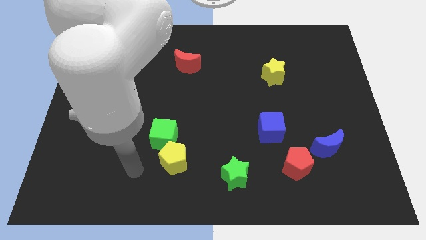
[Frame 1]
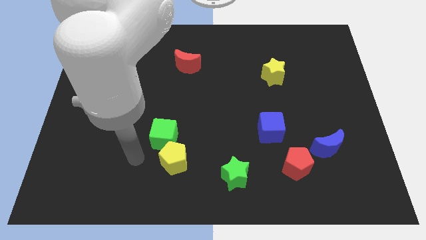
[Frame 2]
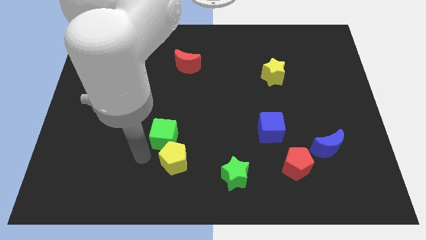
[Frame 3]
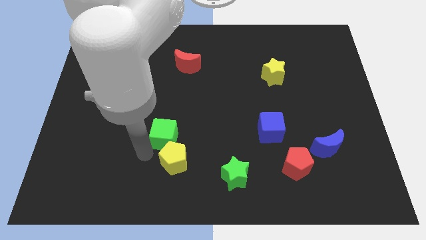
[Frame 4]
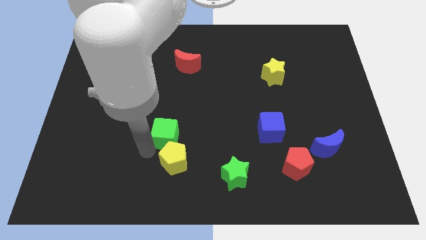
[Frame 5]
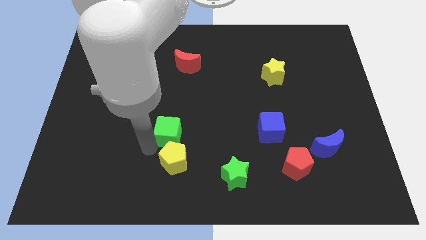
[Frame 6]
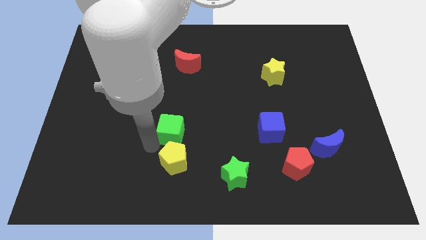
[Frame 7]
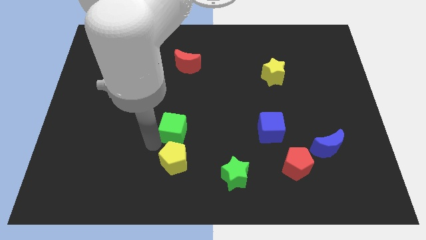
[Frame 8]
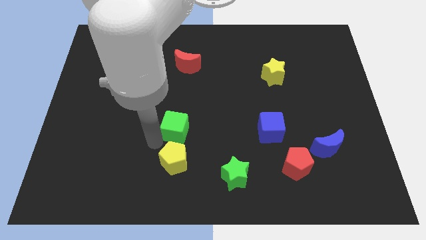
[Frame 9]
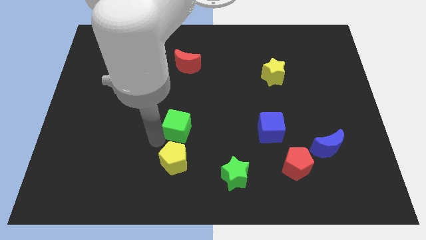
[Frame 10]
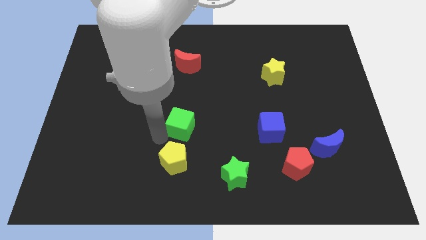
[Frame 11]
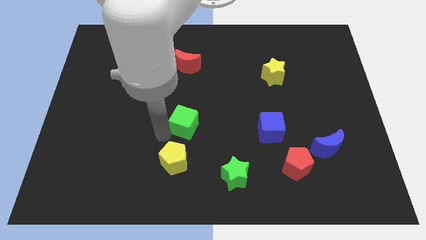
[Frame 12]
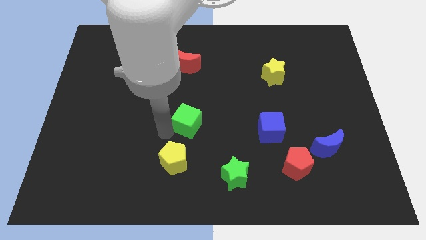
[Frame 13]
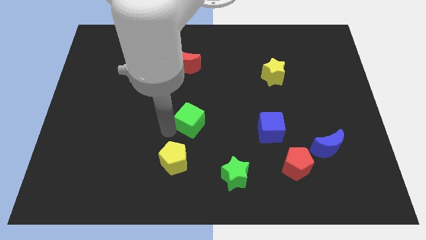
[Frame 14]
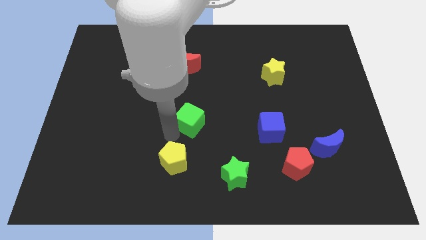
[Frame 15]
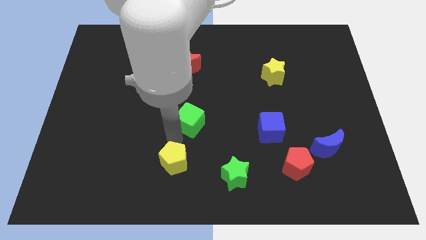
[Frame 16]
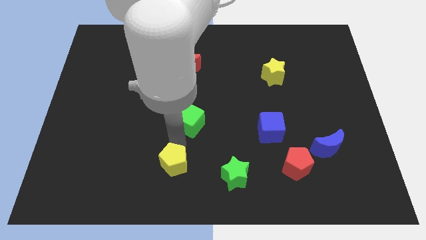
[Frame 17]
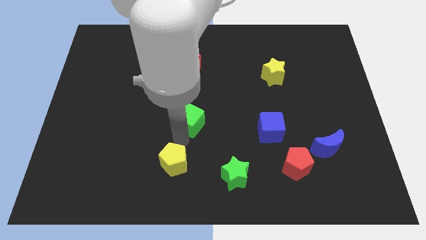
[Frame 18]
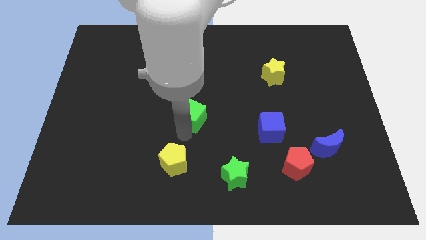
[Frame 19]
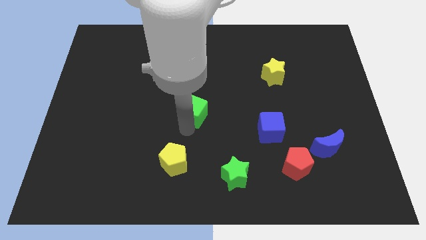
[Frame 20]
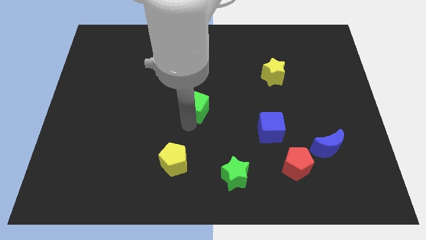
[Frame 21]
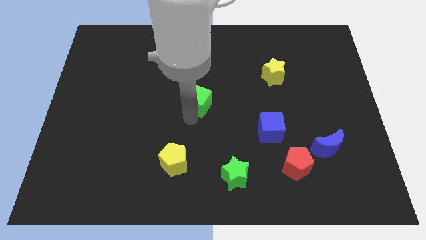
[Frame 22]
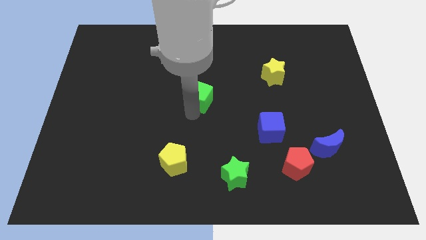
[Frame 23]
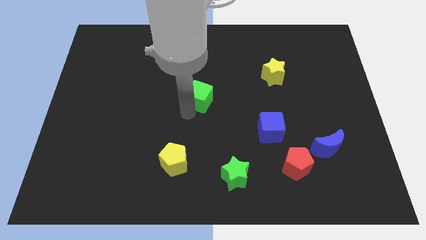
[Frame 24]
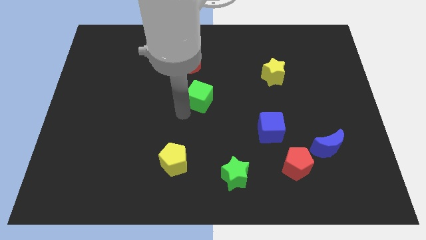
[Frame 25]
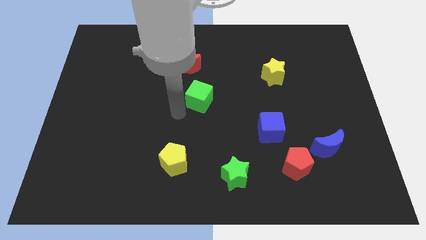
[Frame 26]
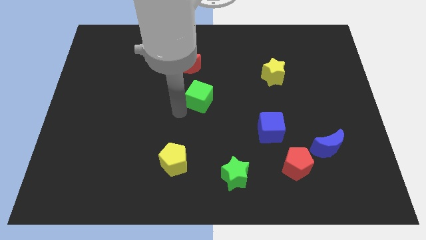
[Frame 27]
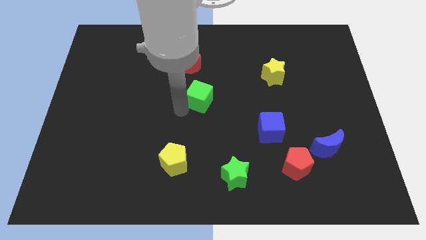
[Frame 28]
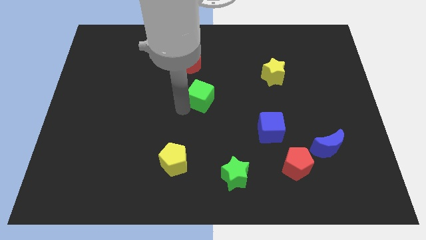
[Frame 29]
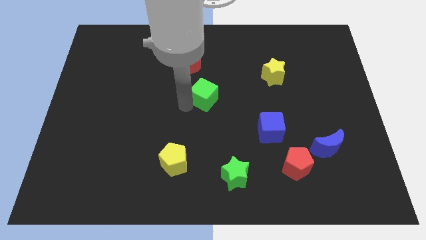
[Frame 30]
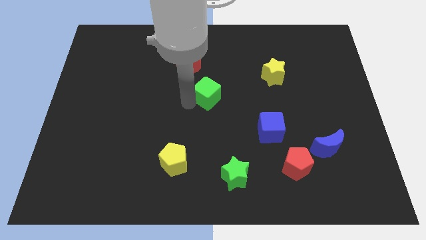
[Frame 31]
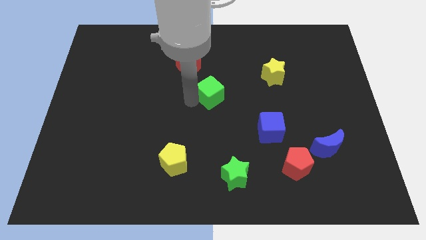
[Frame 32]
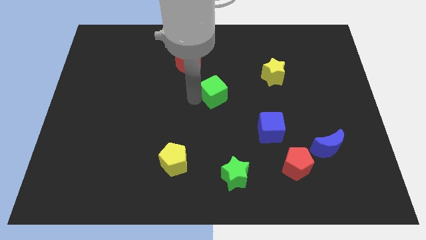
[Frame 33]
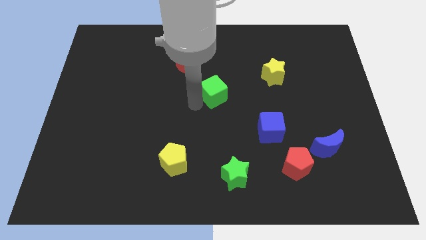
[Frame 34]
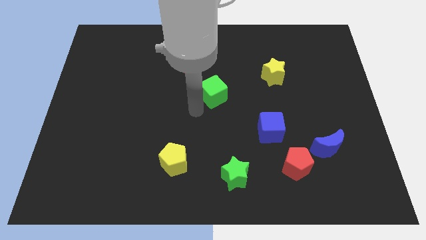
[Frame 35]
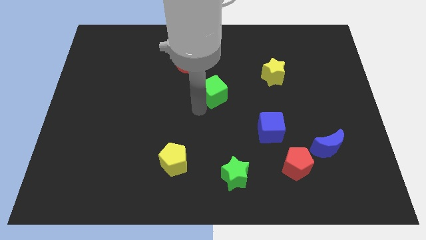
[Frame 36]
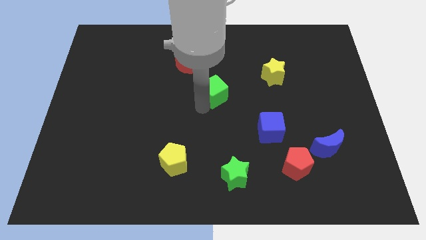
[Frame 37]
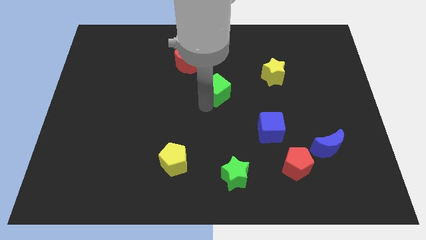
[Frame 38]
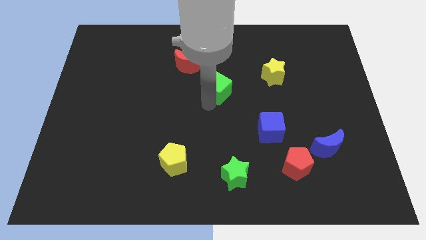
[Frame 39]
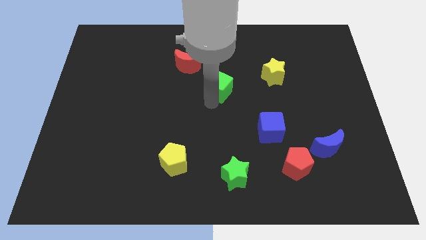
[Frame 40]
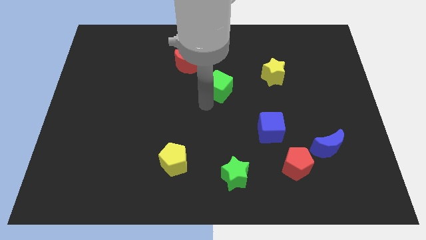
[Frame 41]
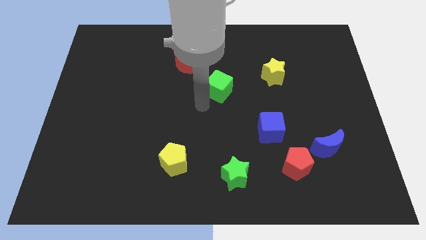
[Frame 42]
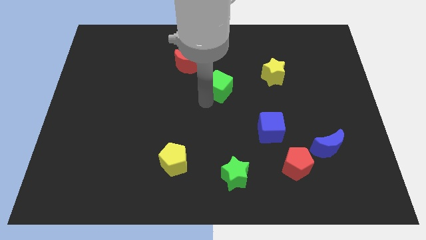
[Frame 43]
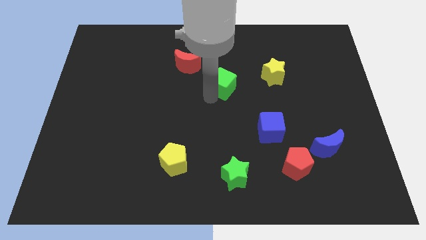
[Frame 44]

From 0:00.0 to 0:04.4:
move the green cube up and right

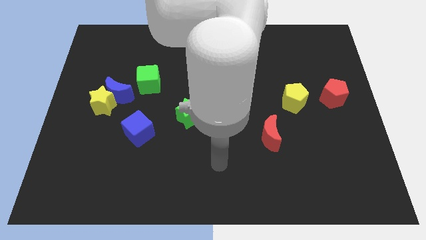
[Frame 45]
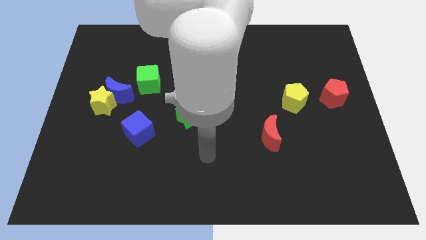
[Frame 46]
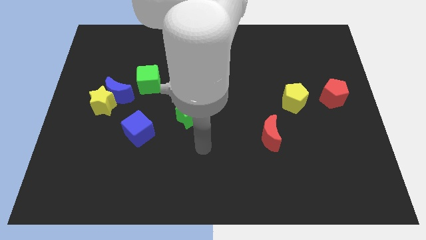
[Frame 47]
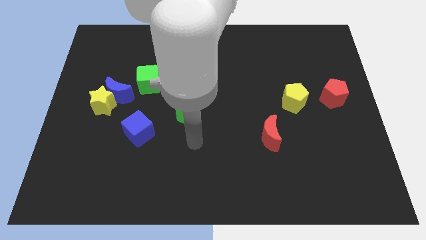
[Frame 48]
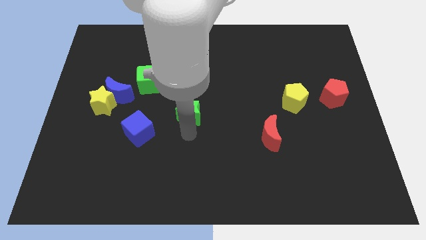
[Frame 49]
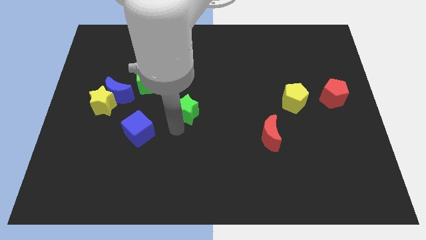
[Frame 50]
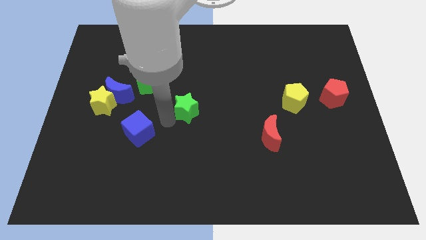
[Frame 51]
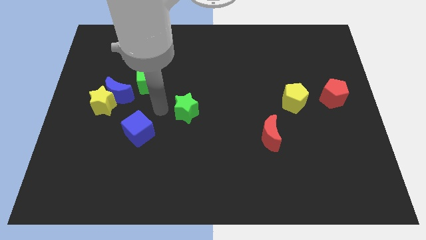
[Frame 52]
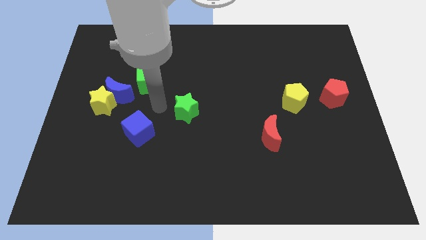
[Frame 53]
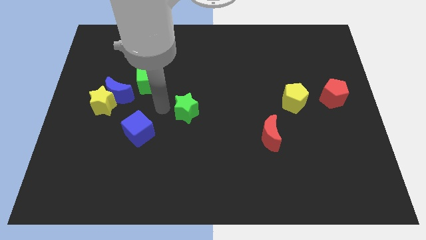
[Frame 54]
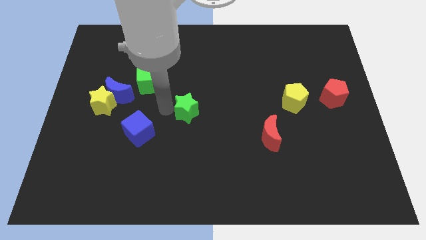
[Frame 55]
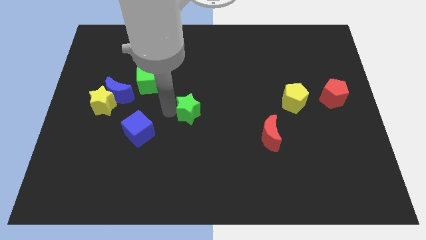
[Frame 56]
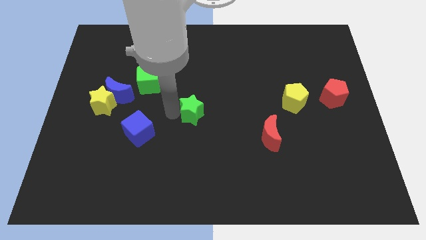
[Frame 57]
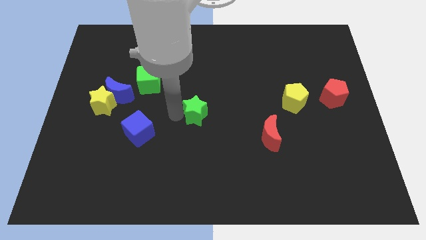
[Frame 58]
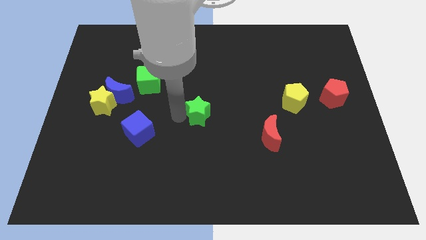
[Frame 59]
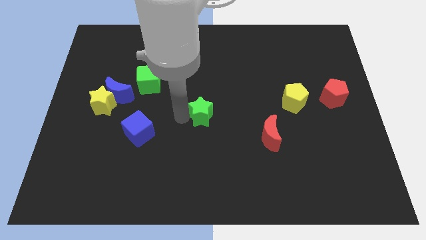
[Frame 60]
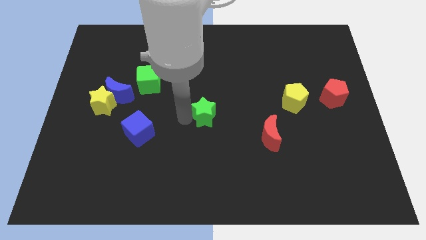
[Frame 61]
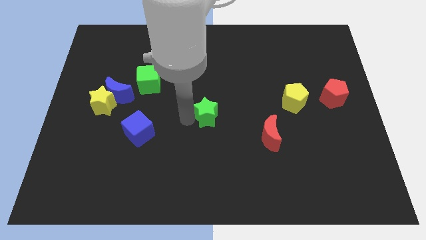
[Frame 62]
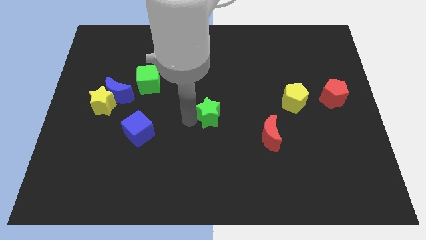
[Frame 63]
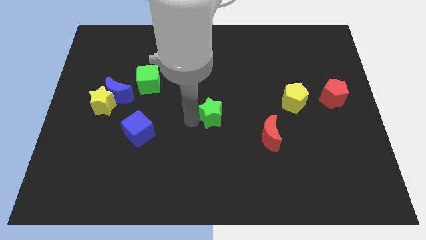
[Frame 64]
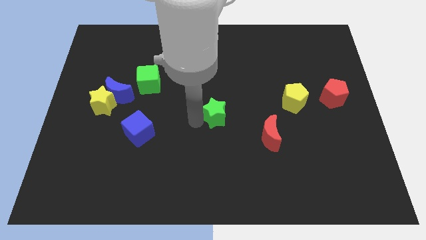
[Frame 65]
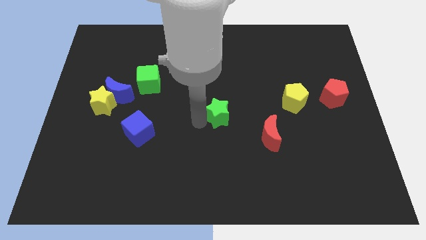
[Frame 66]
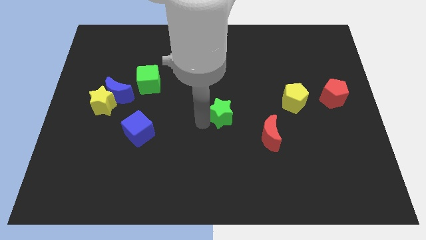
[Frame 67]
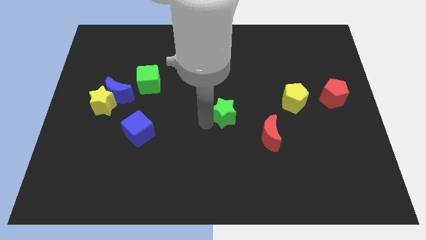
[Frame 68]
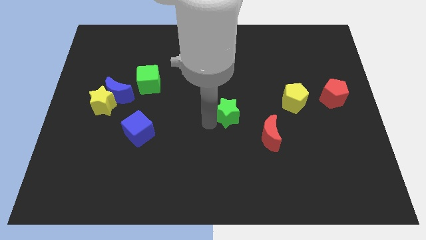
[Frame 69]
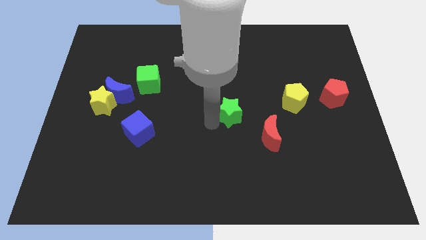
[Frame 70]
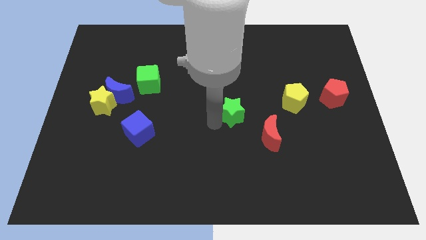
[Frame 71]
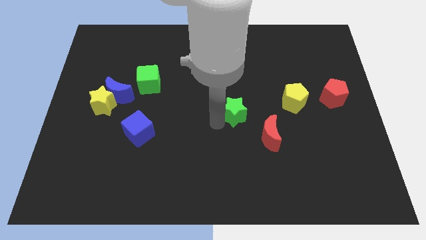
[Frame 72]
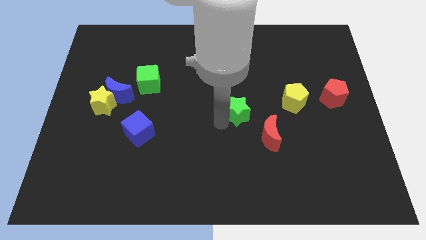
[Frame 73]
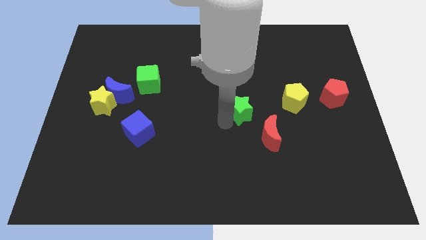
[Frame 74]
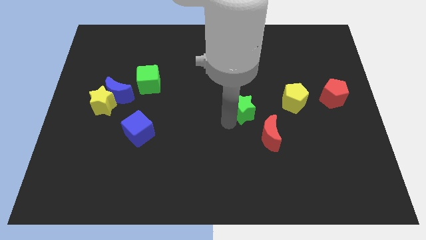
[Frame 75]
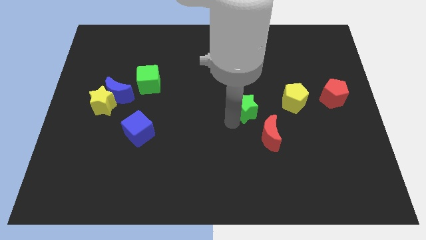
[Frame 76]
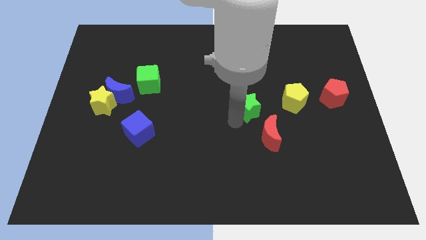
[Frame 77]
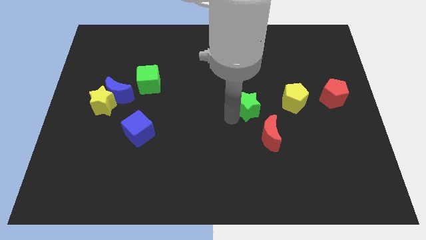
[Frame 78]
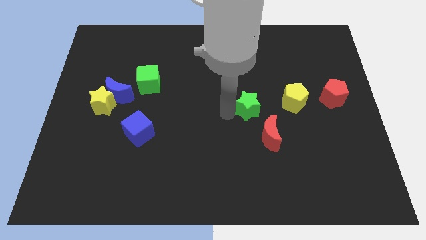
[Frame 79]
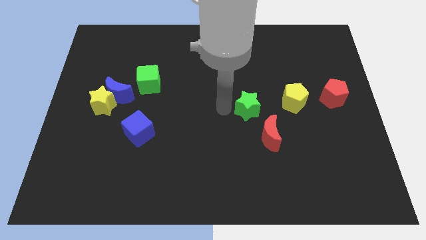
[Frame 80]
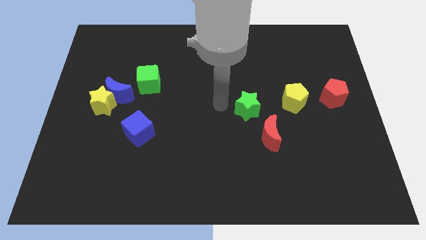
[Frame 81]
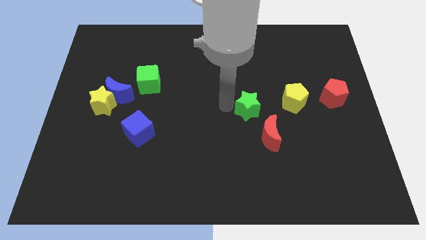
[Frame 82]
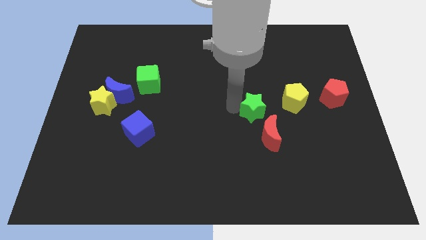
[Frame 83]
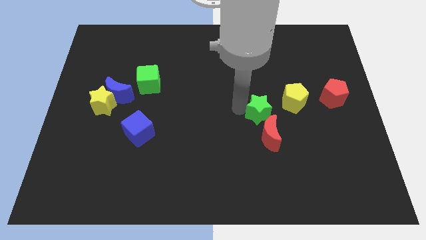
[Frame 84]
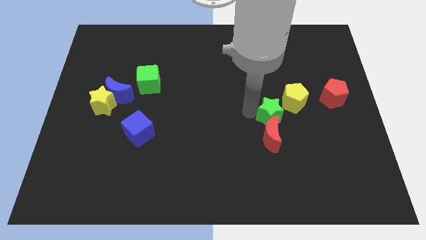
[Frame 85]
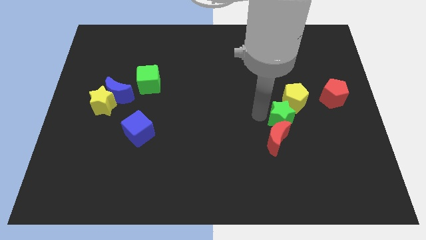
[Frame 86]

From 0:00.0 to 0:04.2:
move the green star to the right
